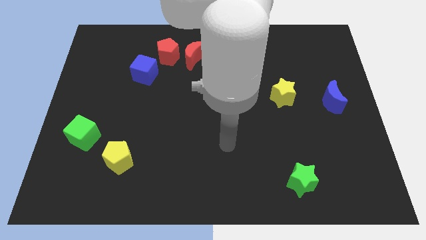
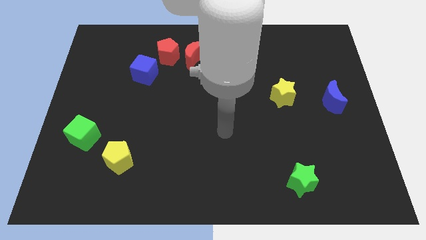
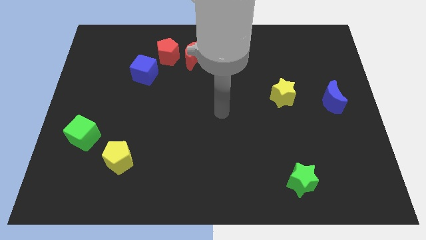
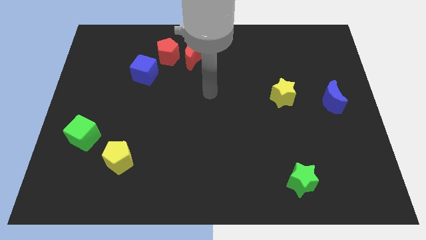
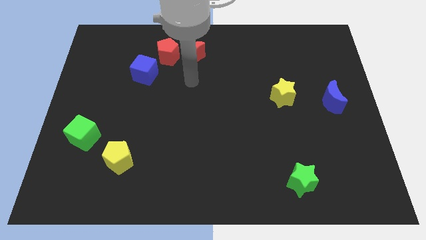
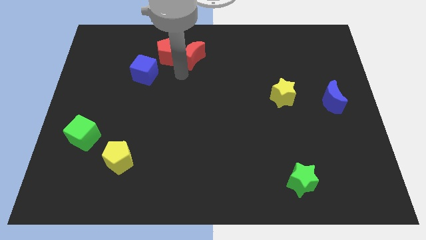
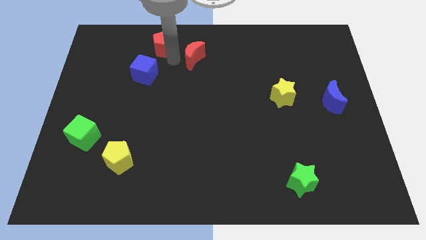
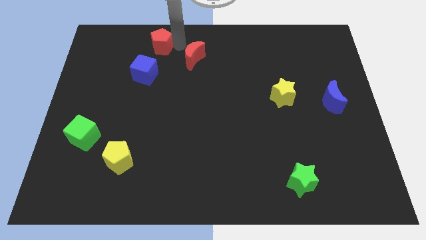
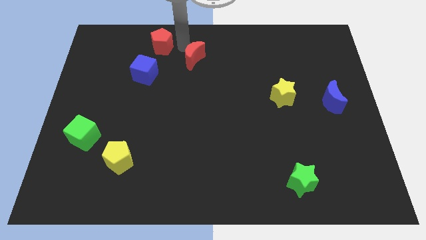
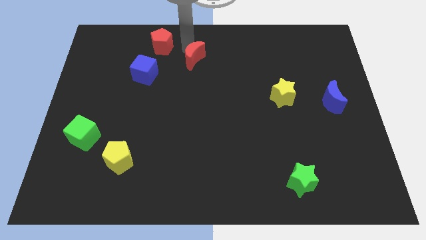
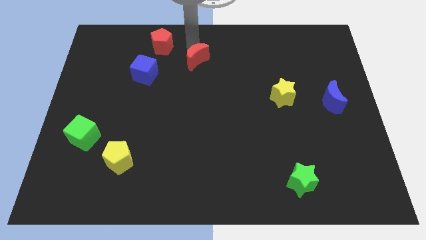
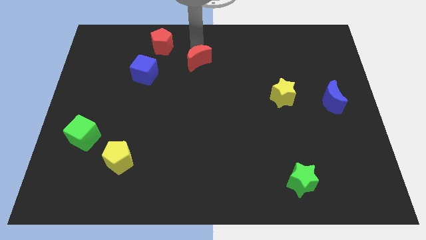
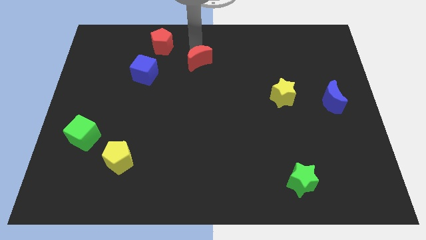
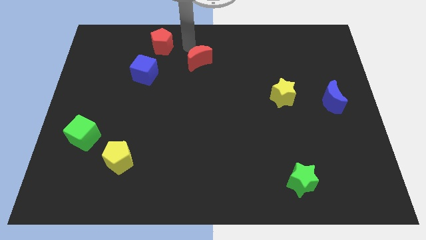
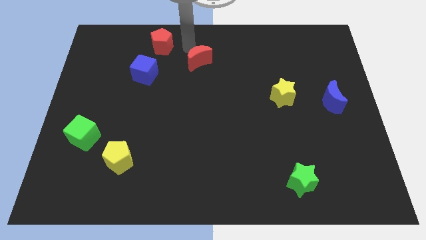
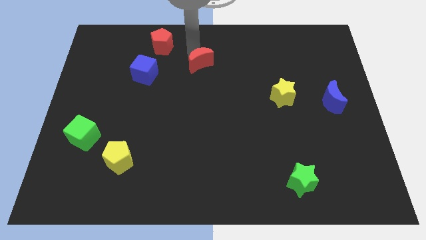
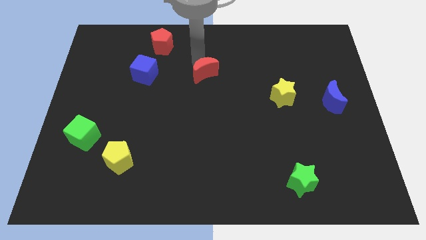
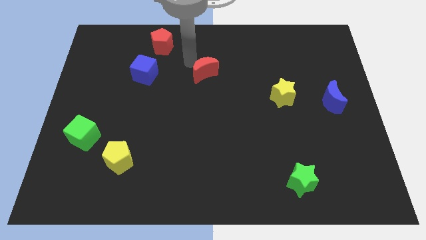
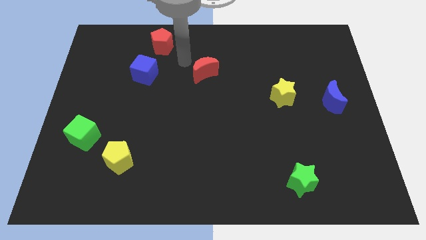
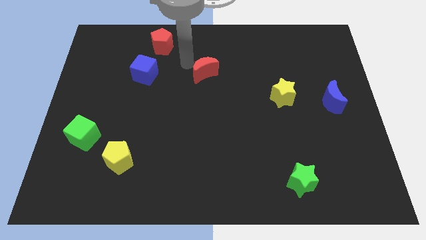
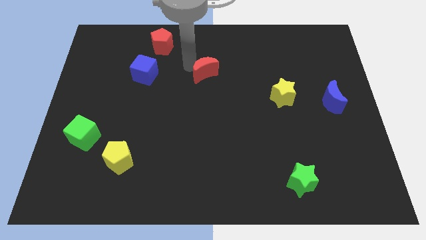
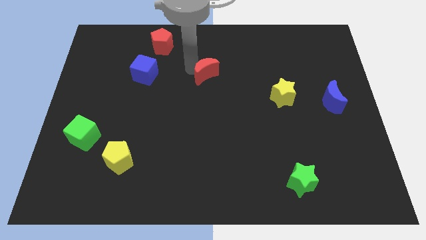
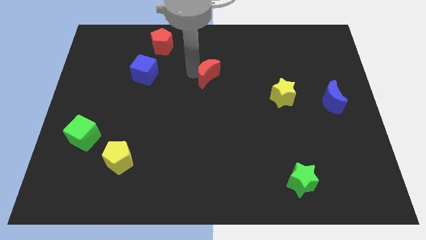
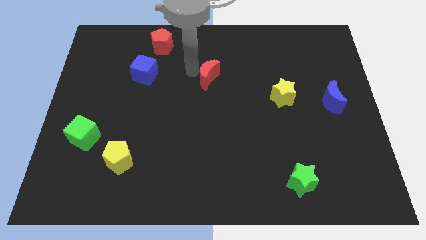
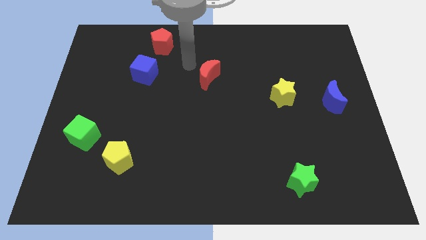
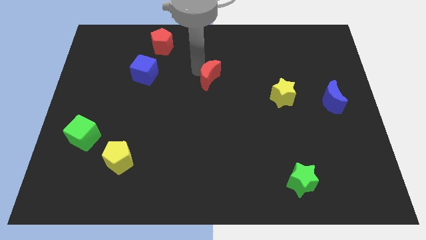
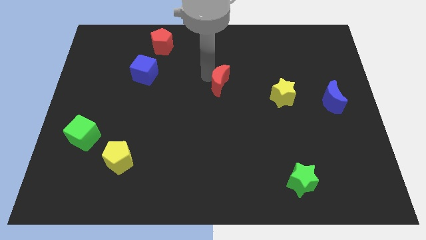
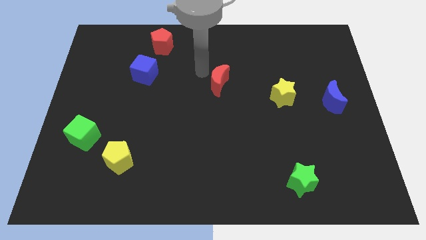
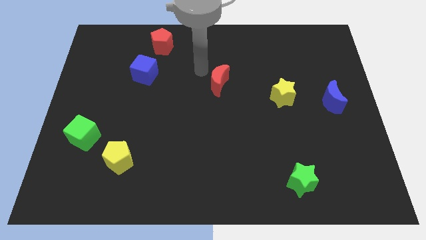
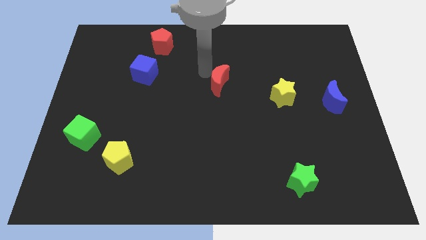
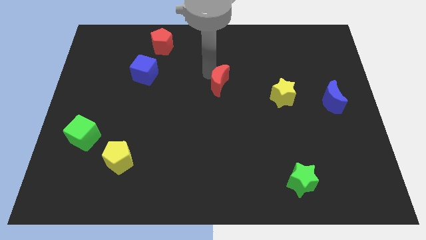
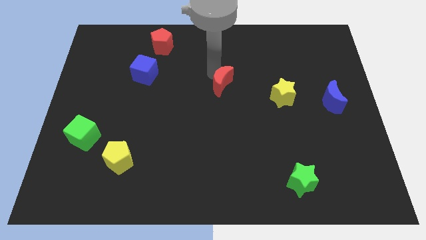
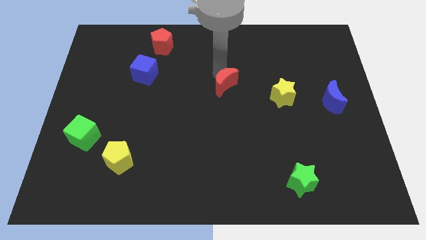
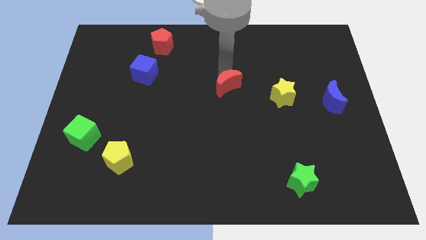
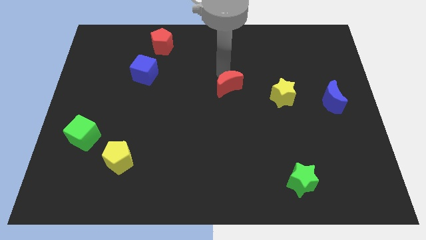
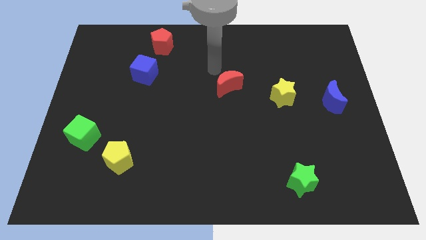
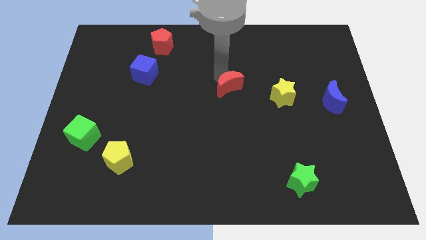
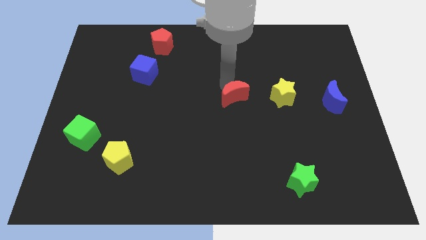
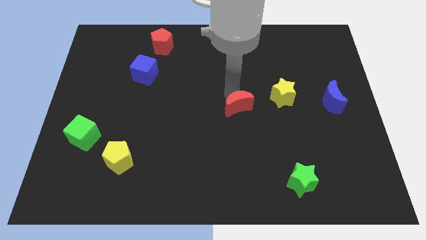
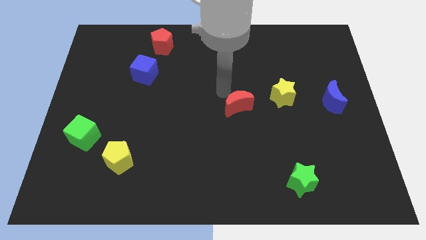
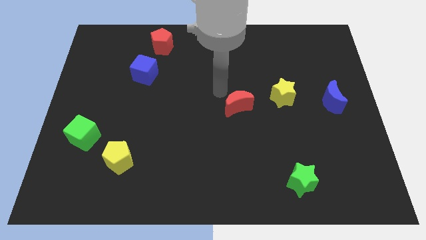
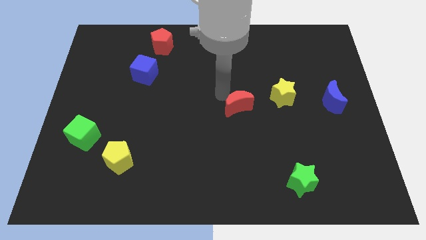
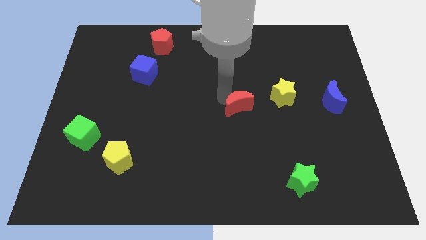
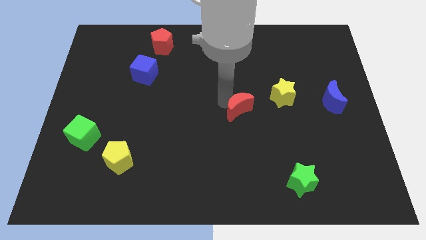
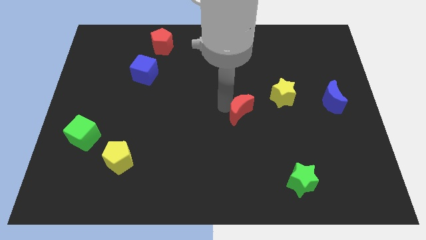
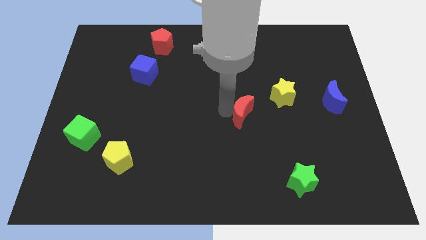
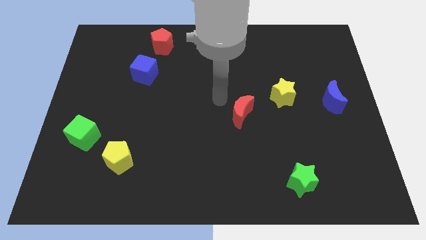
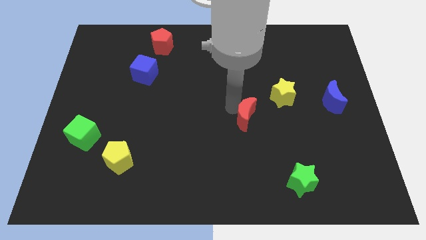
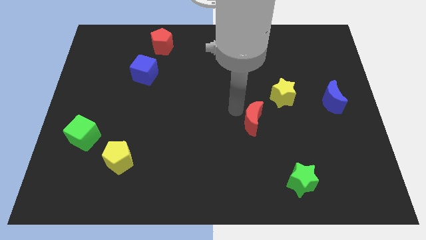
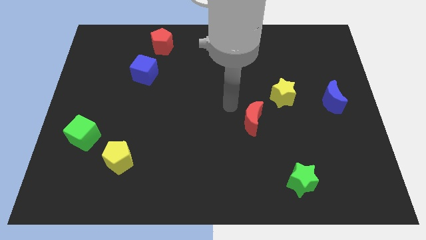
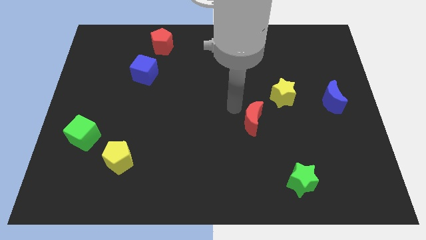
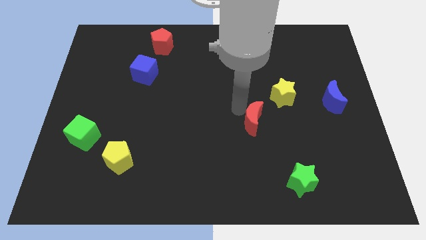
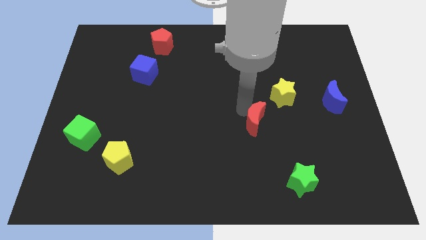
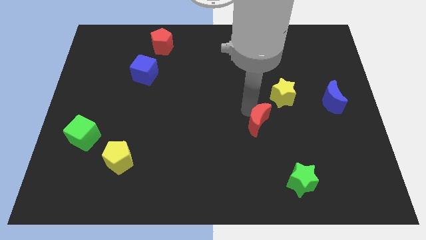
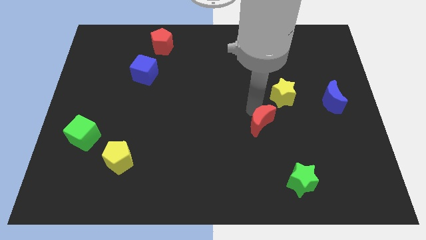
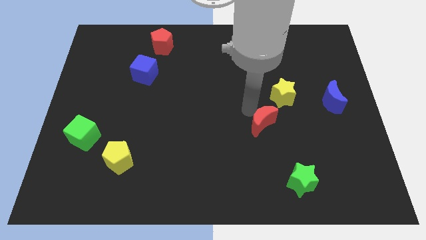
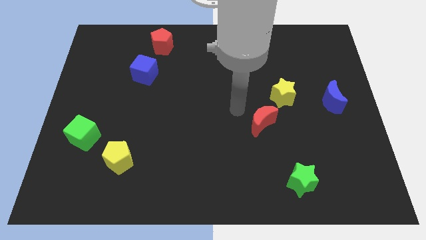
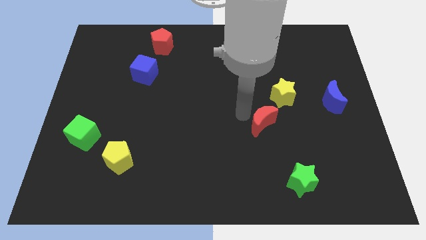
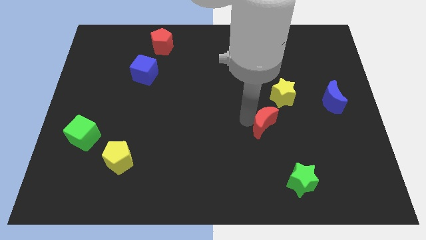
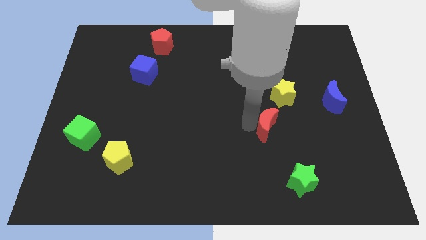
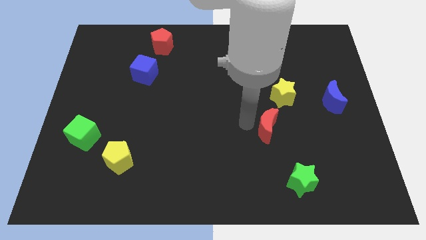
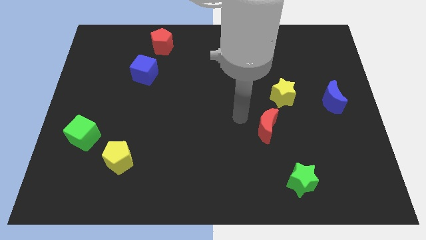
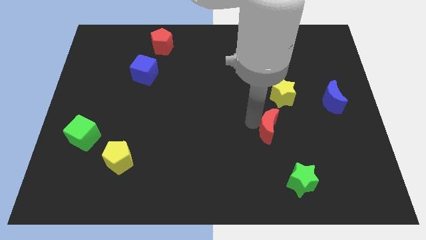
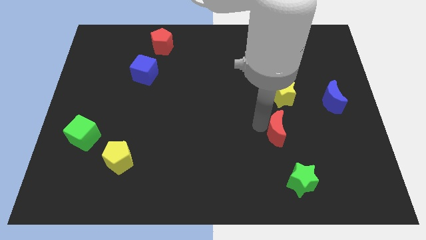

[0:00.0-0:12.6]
put the red moon to the top of the green star

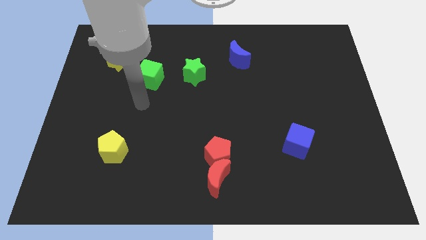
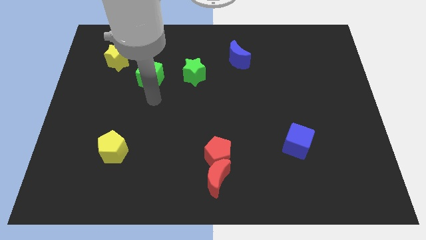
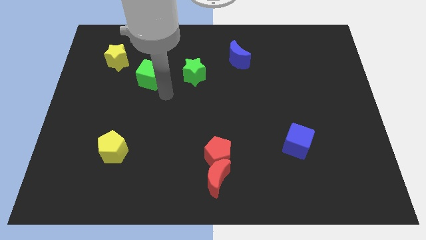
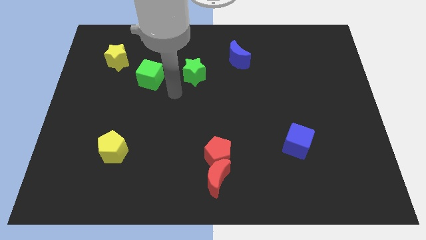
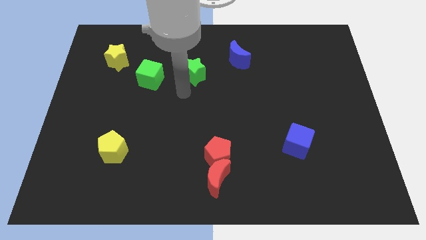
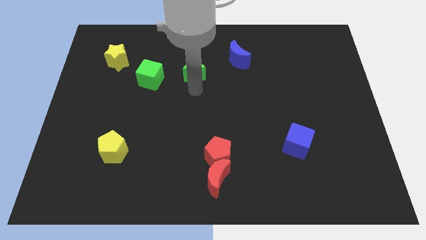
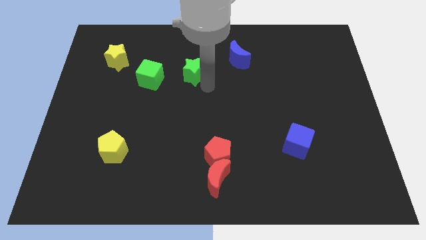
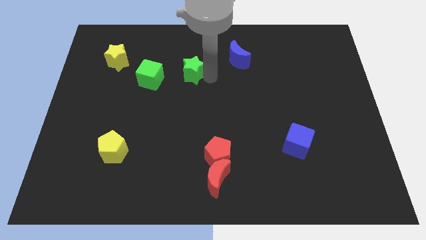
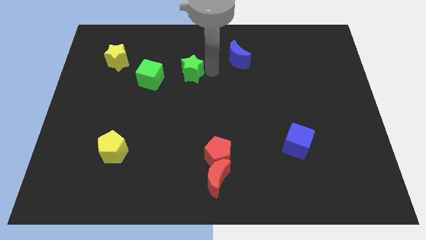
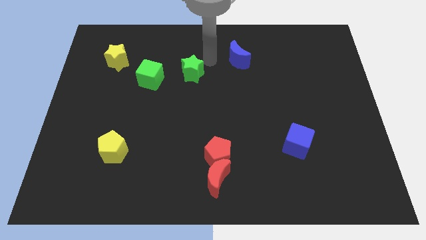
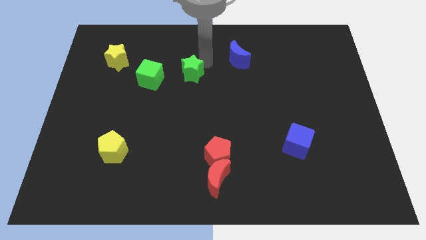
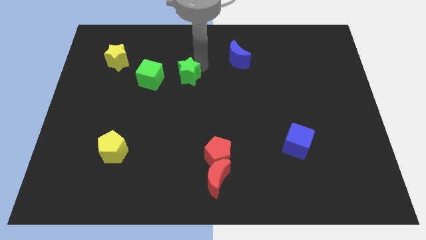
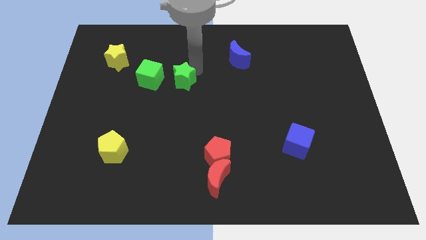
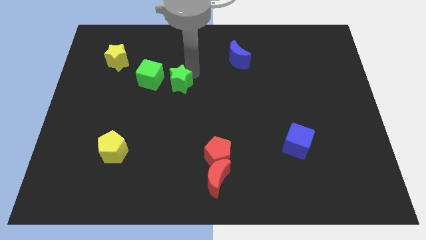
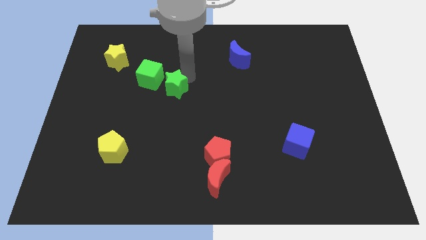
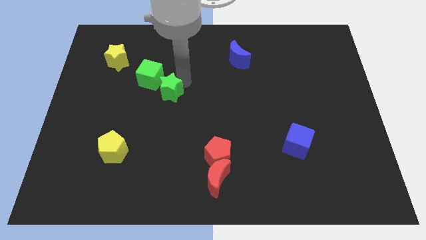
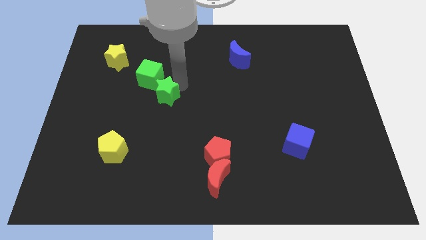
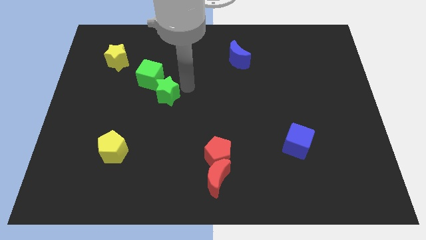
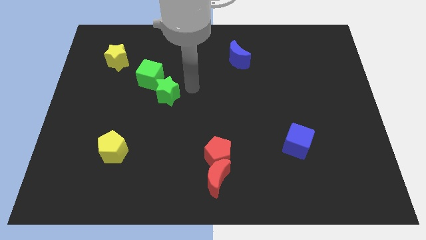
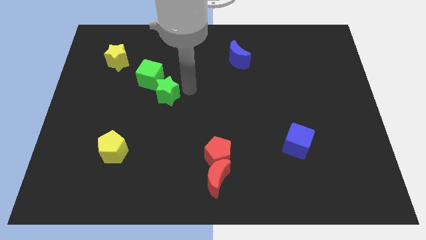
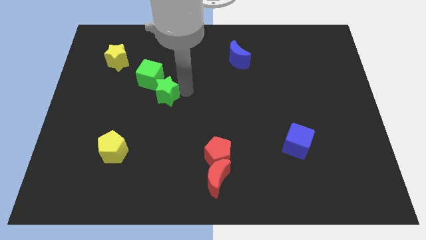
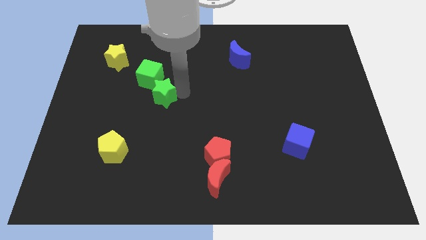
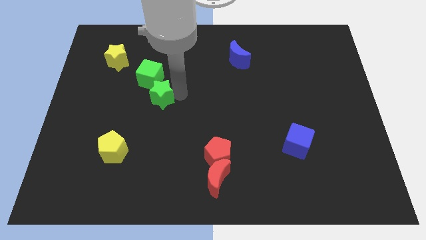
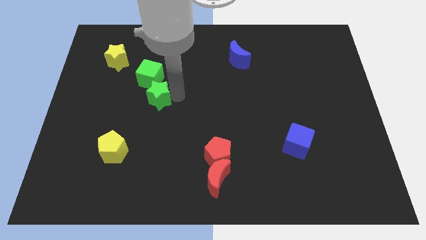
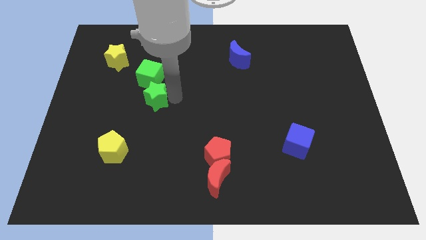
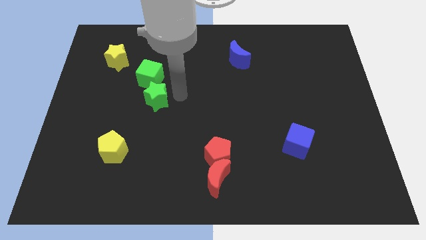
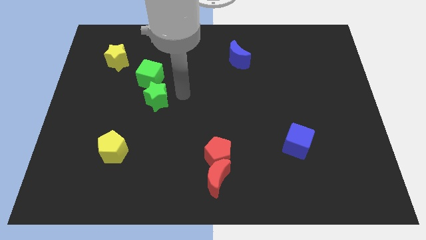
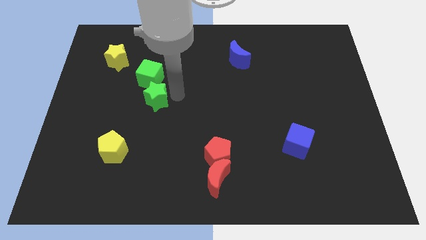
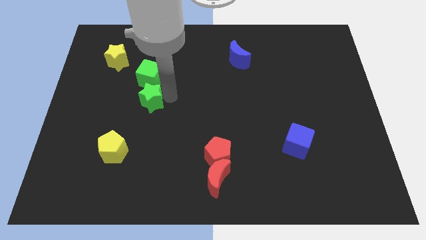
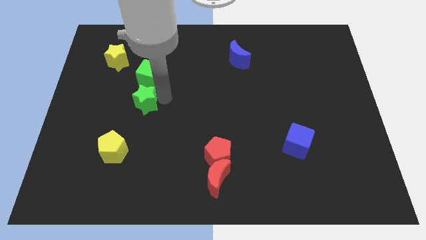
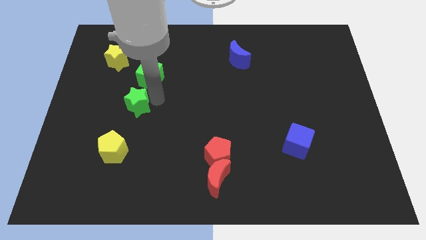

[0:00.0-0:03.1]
put the green star above the yellow pentagon
